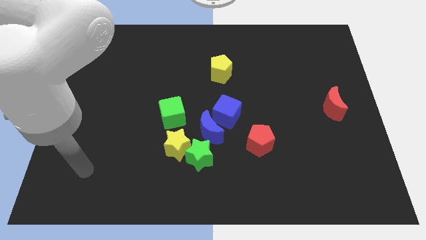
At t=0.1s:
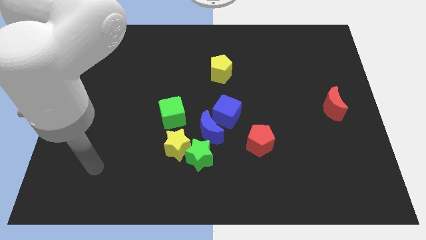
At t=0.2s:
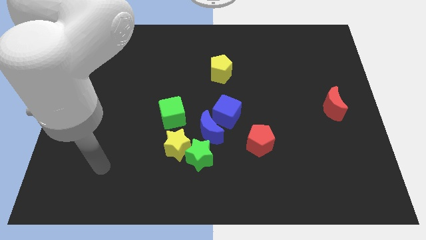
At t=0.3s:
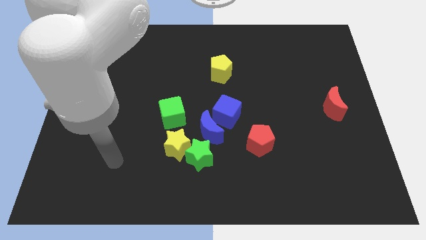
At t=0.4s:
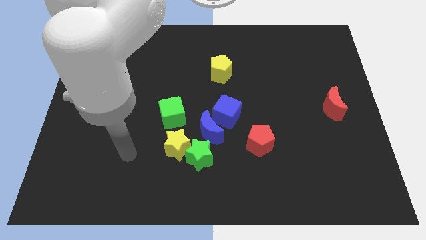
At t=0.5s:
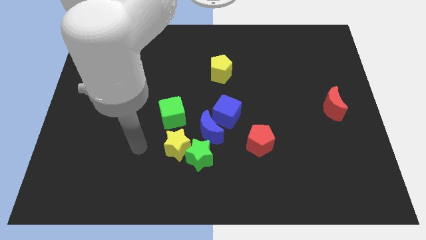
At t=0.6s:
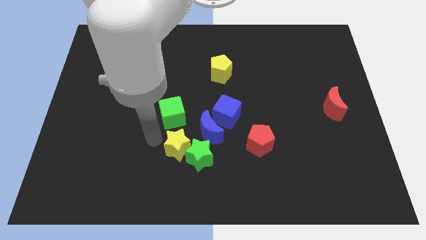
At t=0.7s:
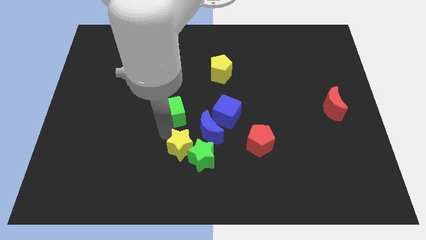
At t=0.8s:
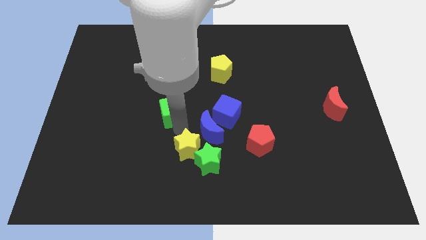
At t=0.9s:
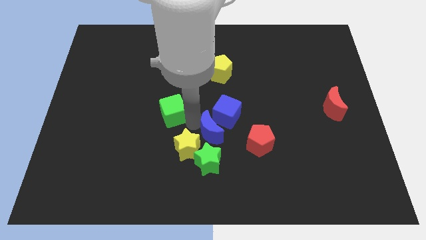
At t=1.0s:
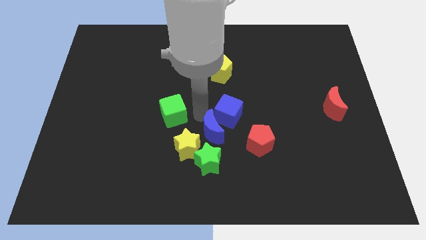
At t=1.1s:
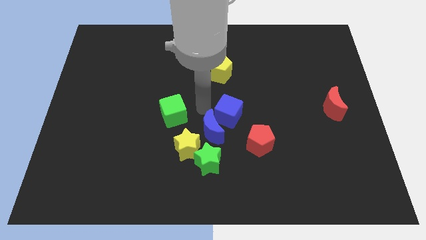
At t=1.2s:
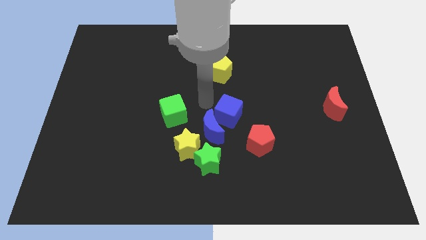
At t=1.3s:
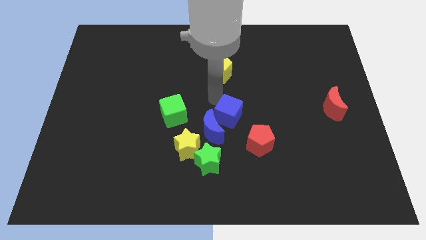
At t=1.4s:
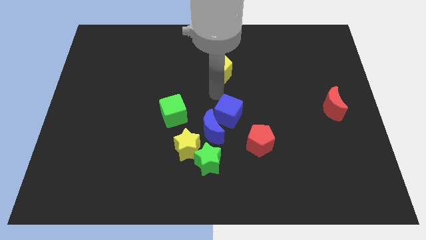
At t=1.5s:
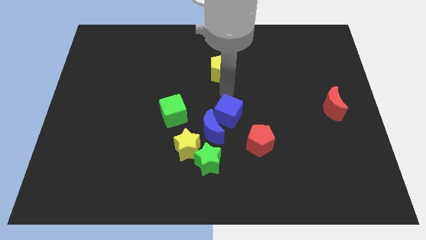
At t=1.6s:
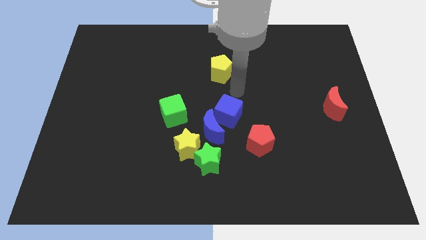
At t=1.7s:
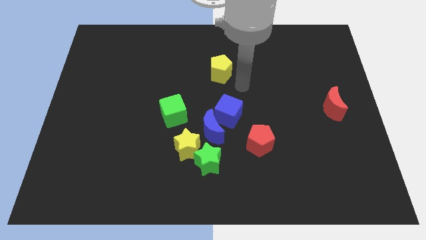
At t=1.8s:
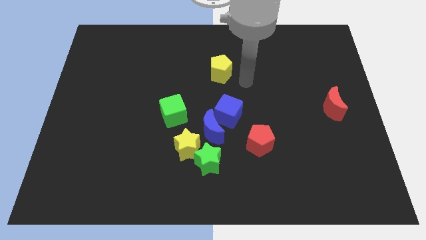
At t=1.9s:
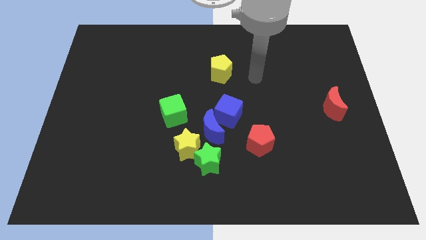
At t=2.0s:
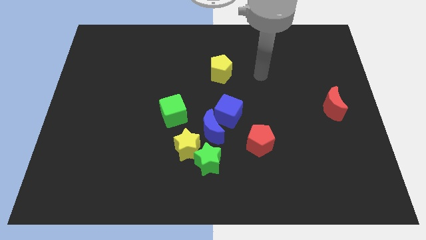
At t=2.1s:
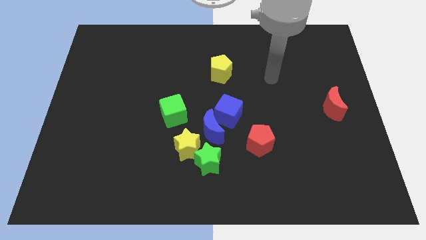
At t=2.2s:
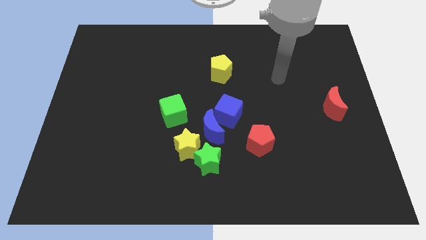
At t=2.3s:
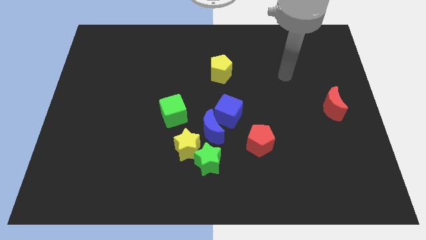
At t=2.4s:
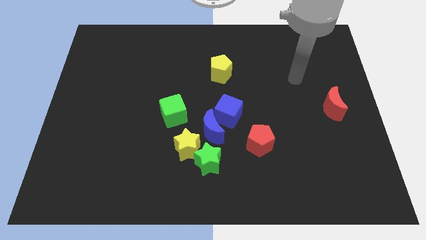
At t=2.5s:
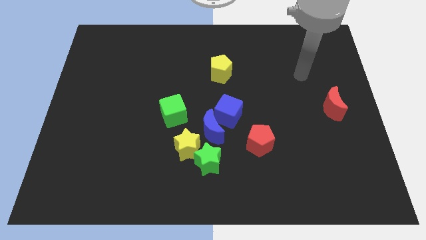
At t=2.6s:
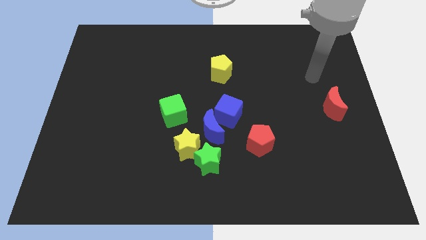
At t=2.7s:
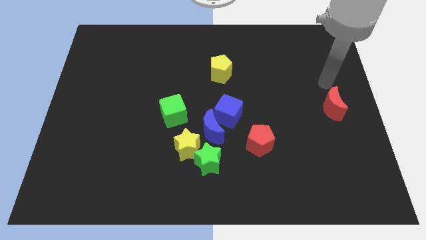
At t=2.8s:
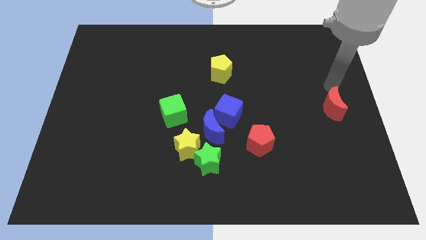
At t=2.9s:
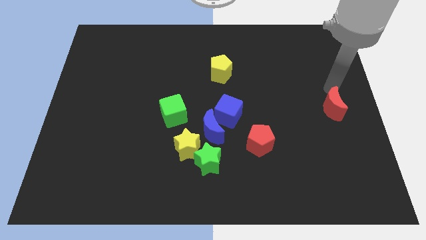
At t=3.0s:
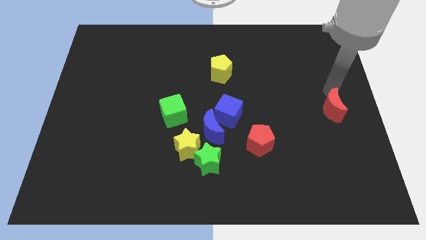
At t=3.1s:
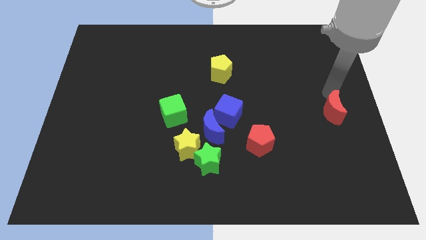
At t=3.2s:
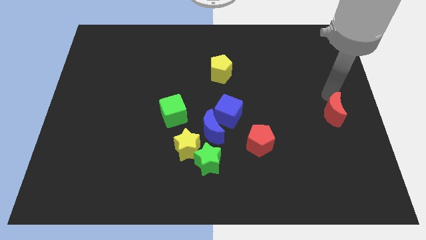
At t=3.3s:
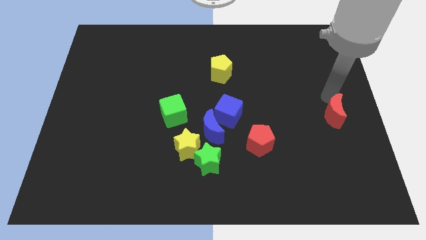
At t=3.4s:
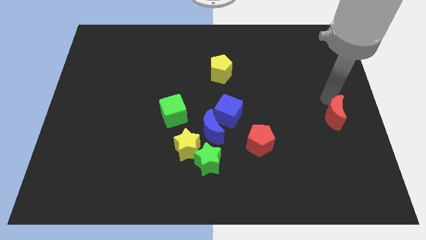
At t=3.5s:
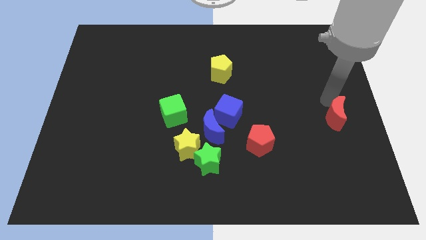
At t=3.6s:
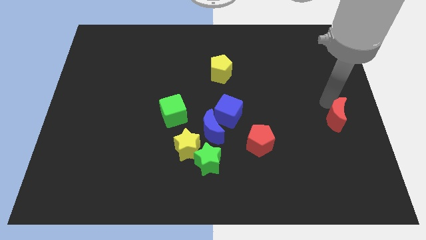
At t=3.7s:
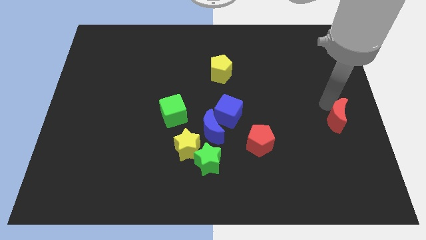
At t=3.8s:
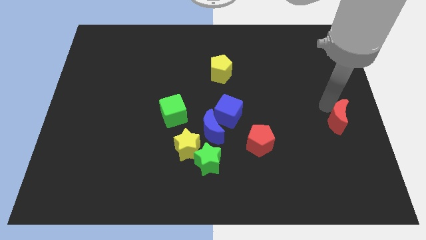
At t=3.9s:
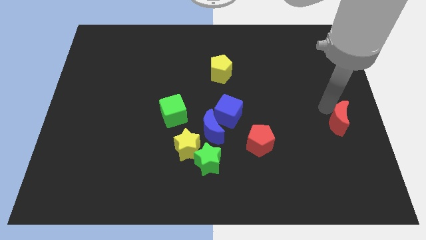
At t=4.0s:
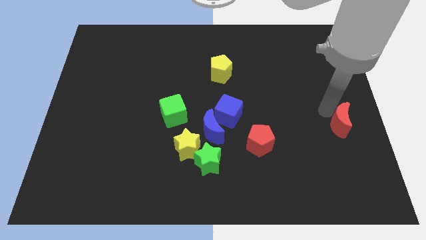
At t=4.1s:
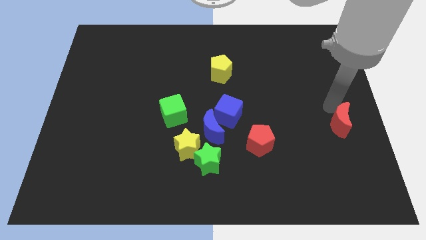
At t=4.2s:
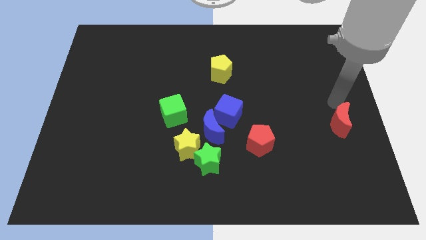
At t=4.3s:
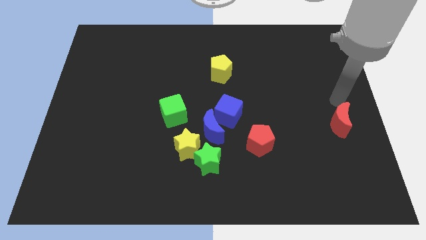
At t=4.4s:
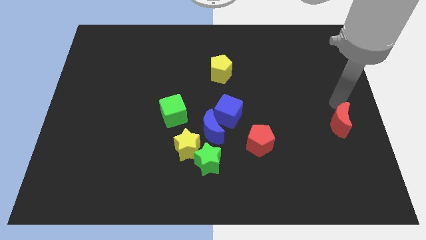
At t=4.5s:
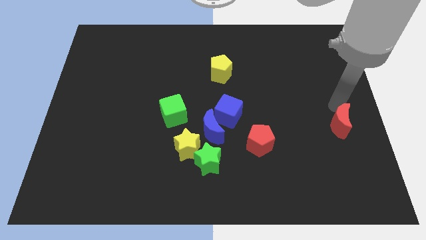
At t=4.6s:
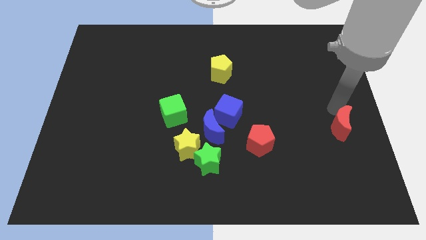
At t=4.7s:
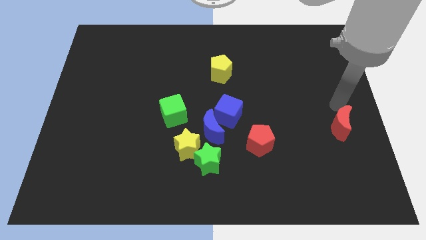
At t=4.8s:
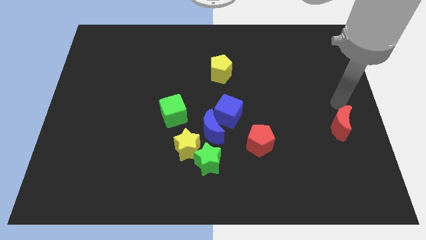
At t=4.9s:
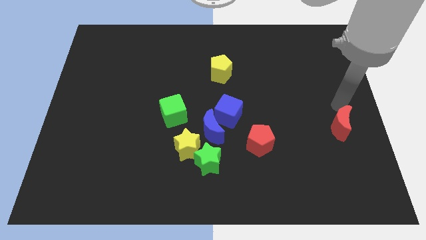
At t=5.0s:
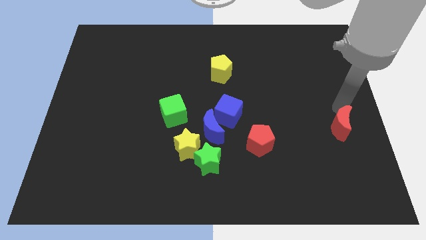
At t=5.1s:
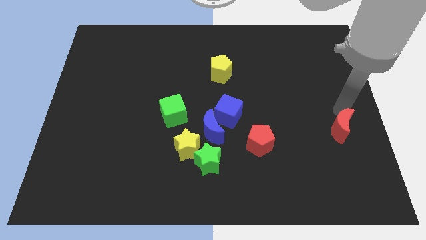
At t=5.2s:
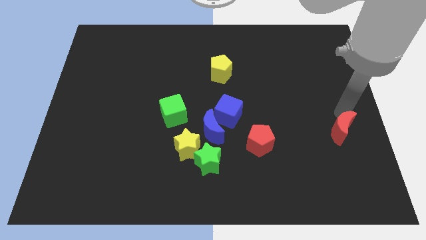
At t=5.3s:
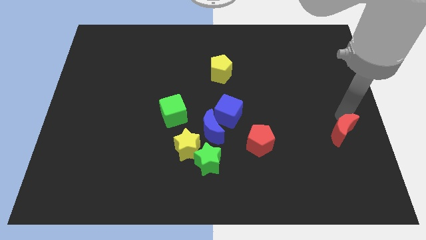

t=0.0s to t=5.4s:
push the red moon slightly down

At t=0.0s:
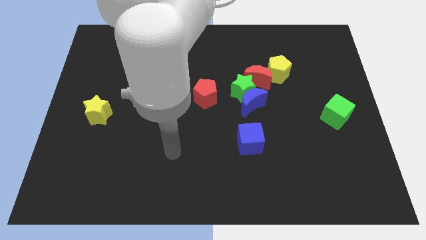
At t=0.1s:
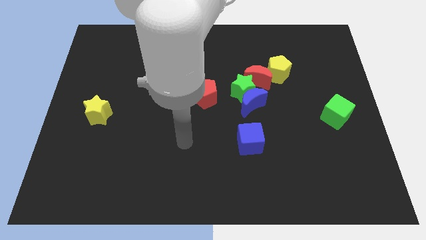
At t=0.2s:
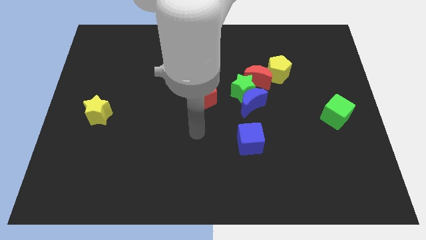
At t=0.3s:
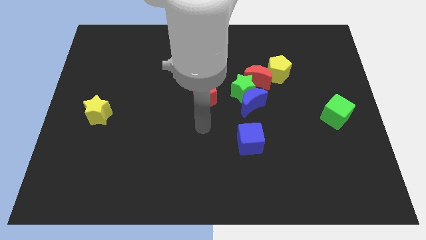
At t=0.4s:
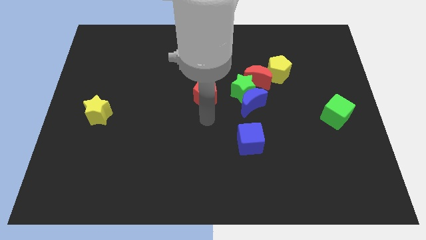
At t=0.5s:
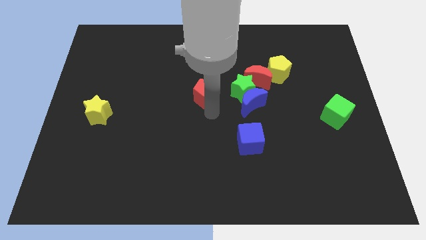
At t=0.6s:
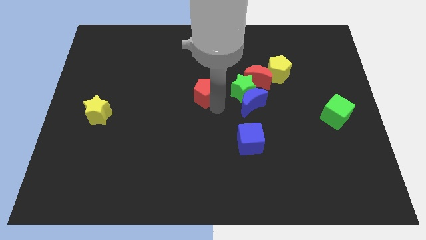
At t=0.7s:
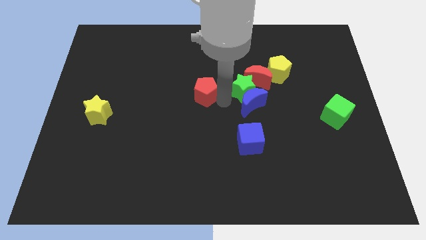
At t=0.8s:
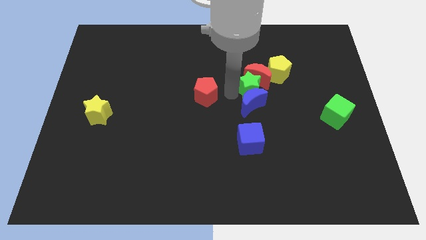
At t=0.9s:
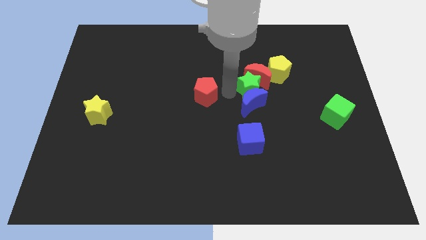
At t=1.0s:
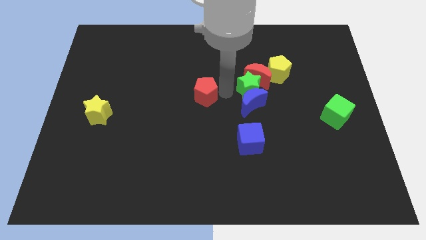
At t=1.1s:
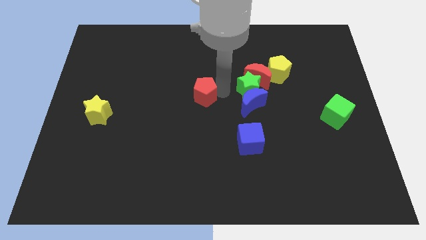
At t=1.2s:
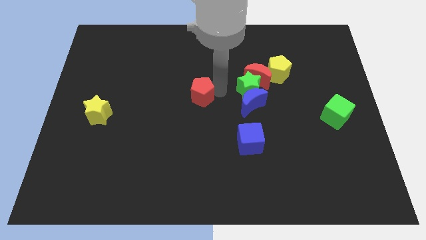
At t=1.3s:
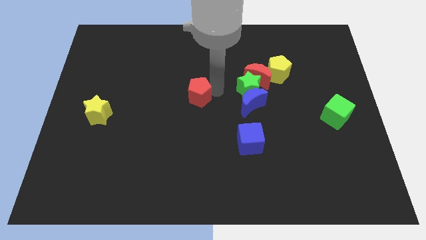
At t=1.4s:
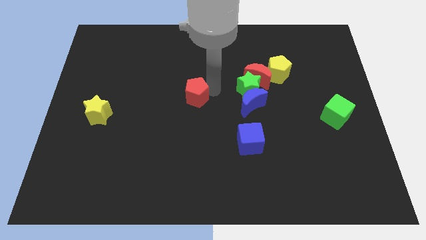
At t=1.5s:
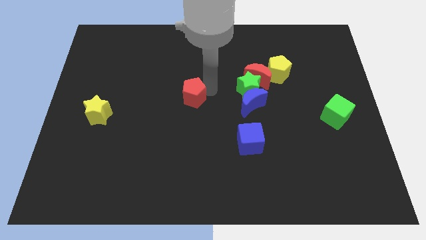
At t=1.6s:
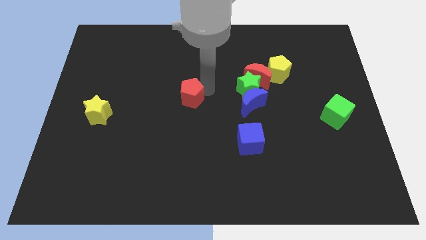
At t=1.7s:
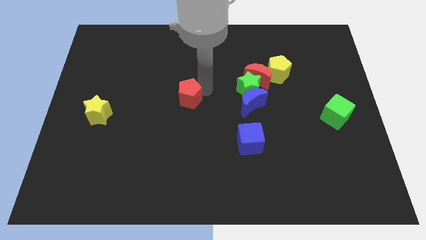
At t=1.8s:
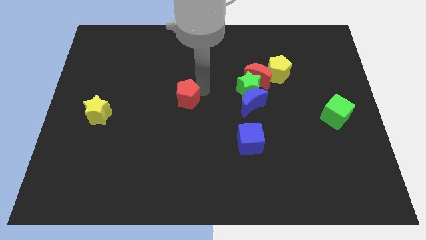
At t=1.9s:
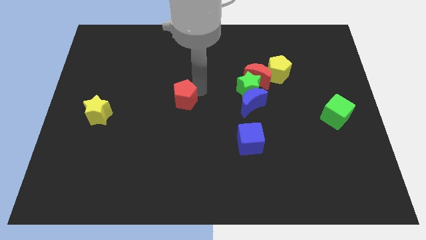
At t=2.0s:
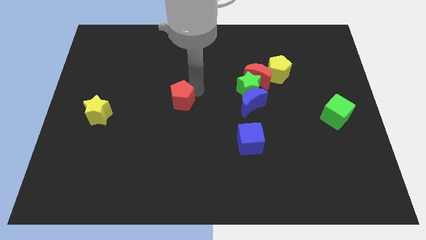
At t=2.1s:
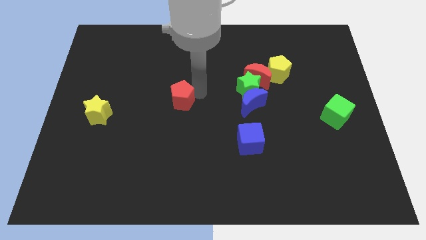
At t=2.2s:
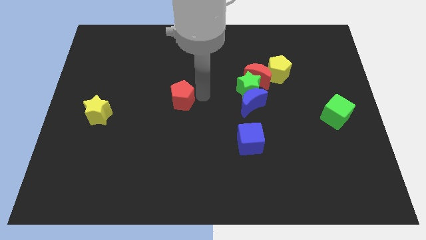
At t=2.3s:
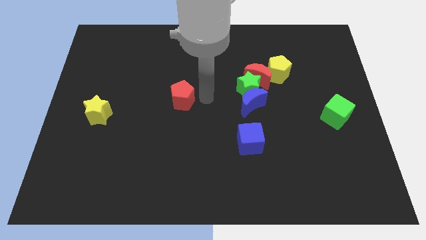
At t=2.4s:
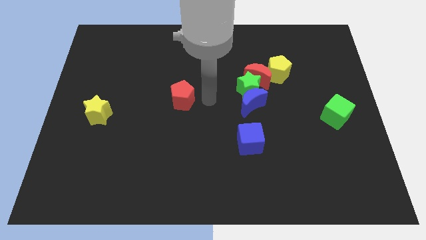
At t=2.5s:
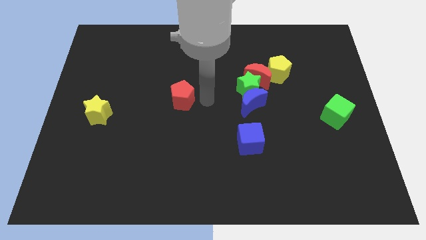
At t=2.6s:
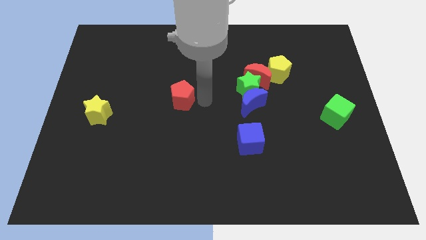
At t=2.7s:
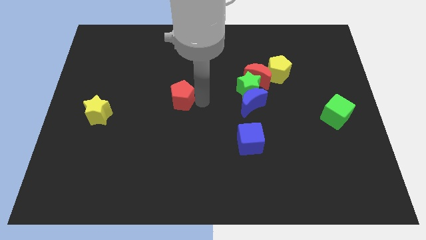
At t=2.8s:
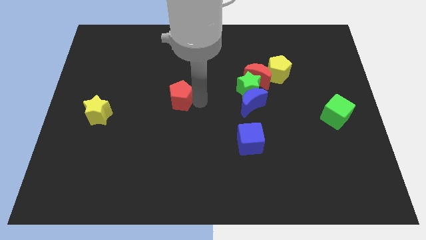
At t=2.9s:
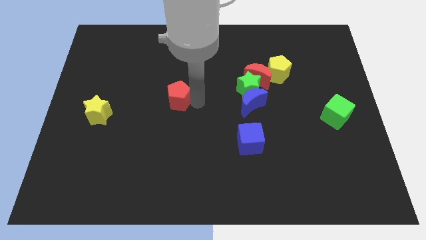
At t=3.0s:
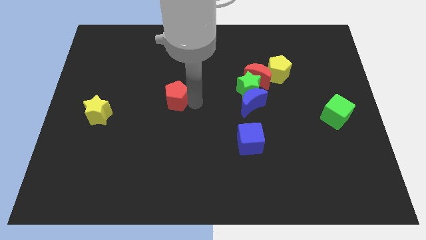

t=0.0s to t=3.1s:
push the red pentagon somewhat to the left
